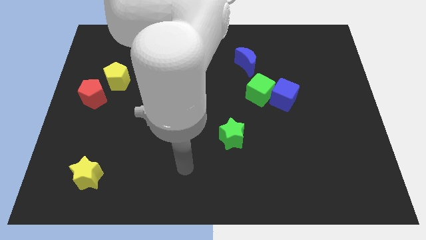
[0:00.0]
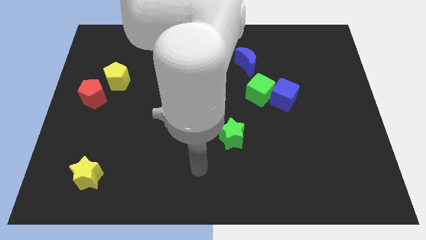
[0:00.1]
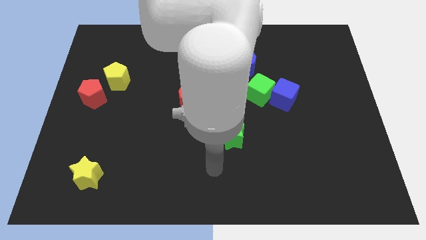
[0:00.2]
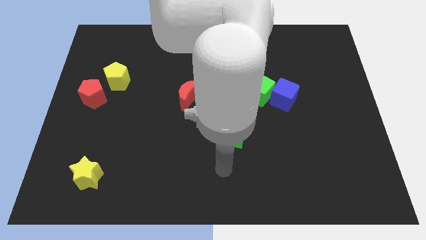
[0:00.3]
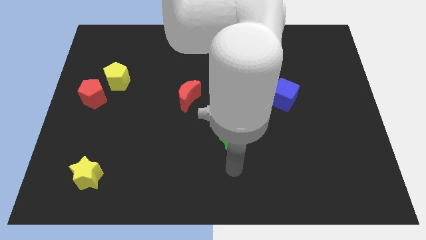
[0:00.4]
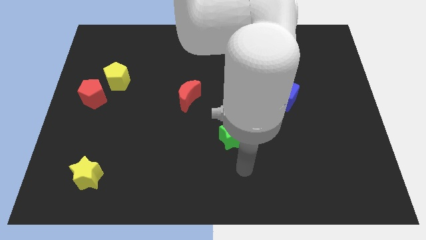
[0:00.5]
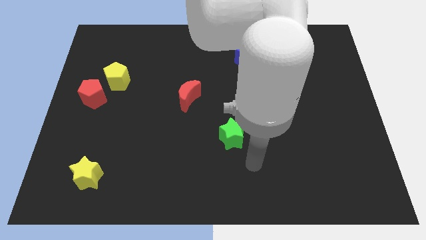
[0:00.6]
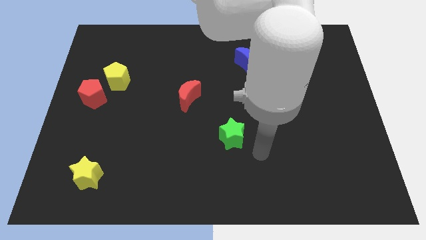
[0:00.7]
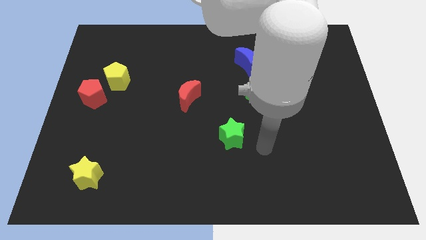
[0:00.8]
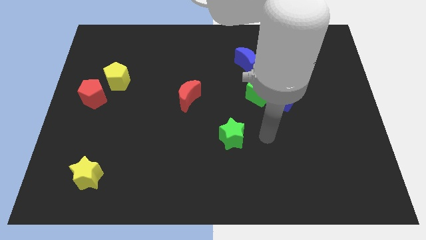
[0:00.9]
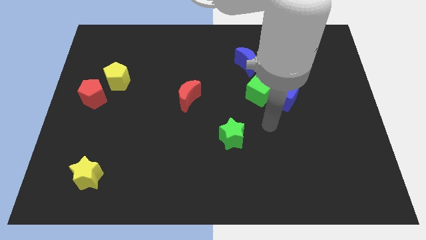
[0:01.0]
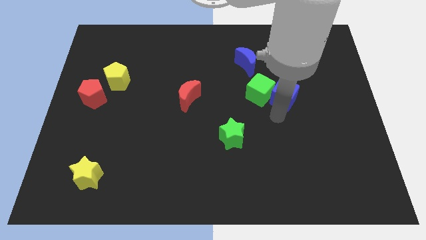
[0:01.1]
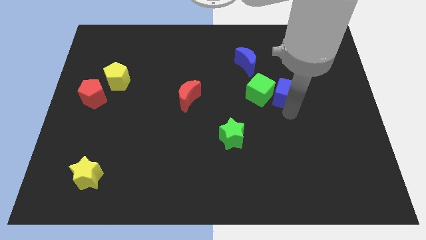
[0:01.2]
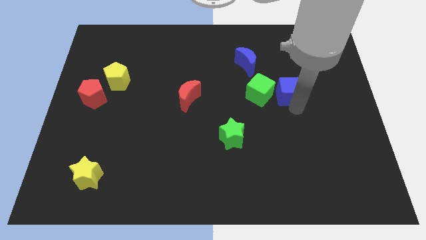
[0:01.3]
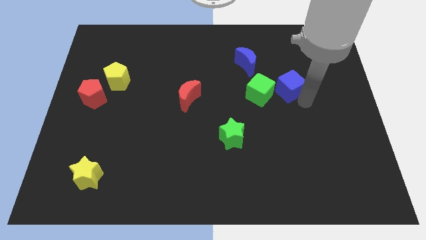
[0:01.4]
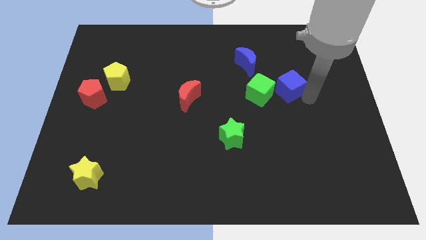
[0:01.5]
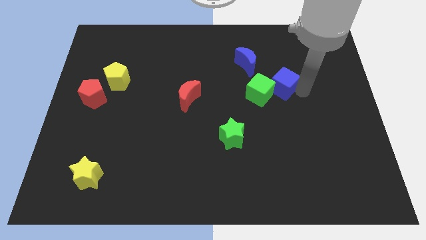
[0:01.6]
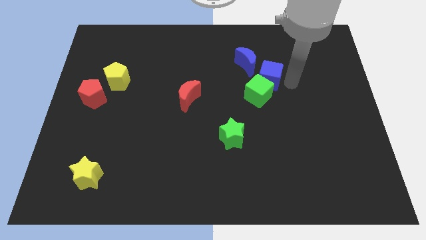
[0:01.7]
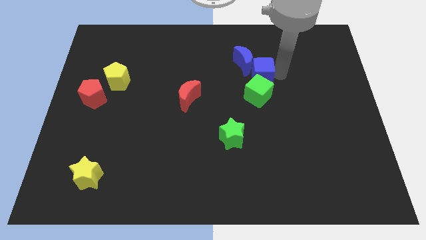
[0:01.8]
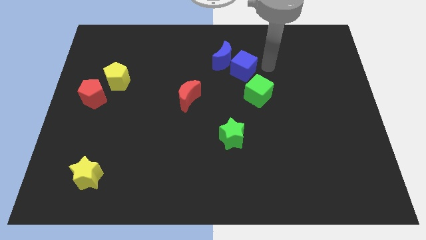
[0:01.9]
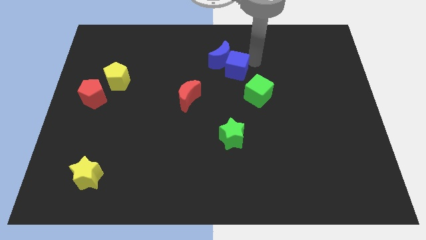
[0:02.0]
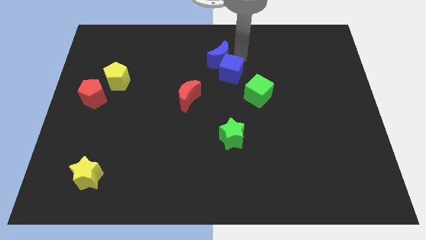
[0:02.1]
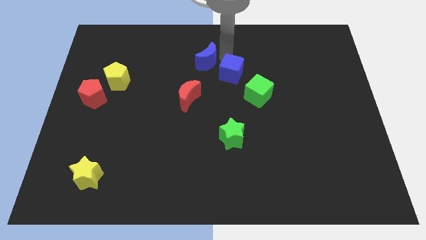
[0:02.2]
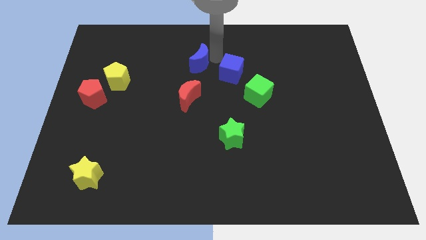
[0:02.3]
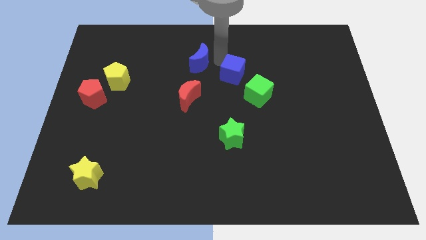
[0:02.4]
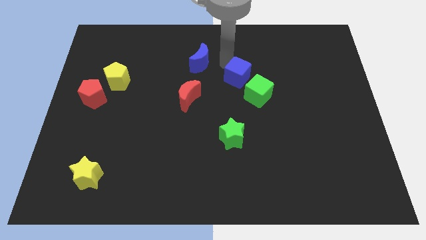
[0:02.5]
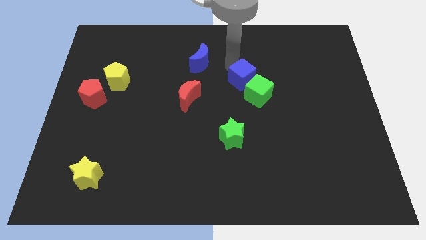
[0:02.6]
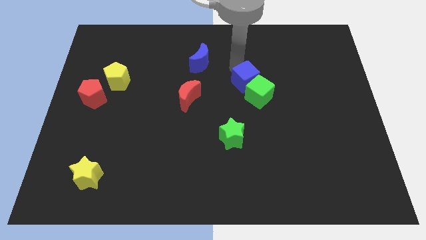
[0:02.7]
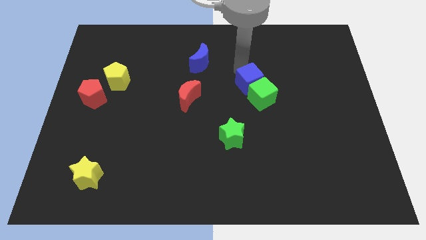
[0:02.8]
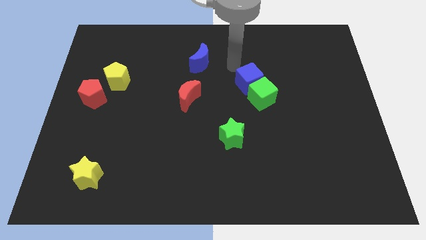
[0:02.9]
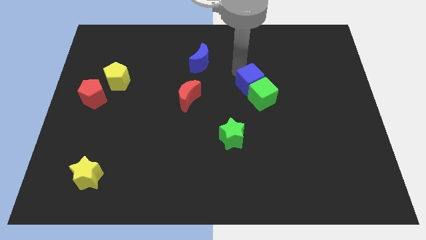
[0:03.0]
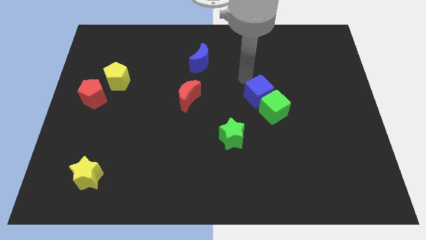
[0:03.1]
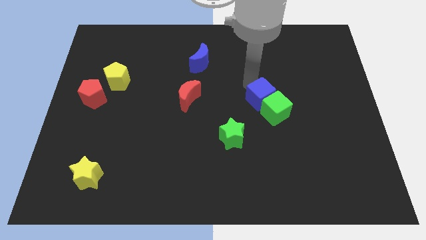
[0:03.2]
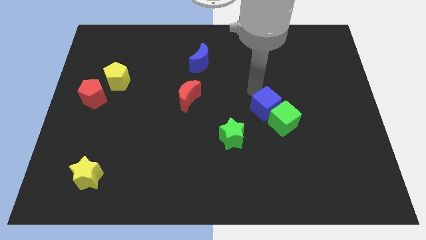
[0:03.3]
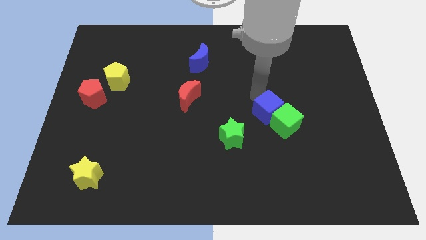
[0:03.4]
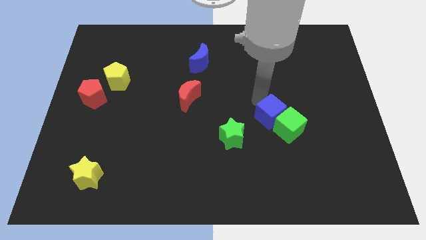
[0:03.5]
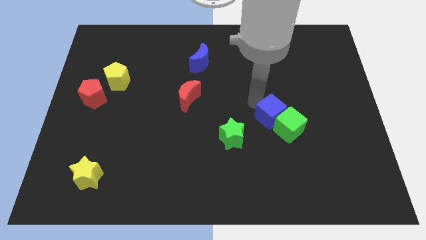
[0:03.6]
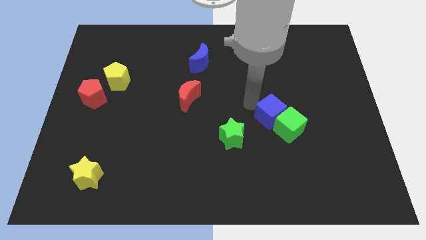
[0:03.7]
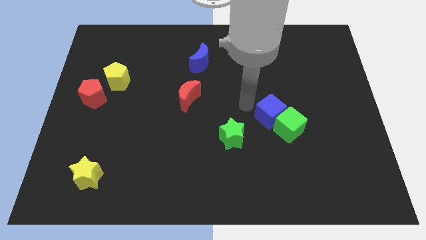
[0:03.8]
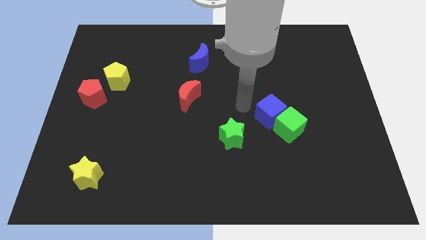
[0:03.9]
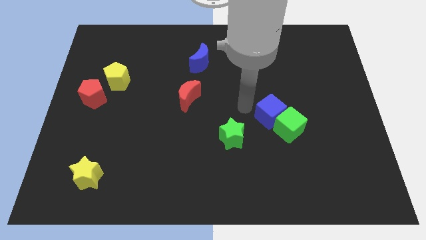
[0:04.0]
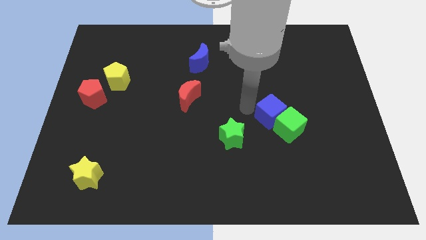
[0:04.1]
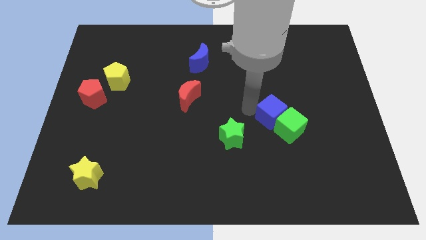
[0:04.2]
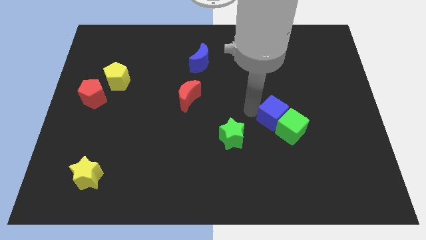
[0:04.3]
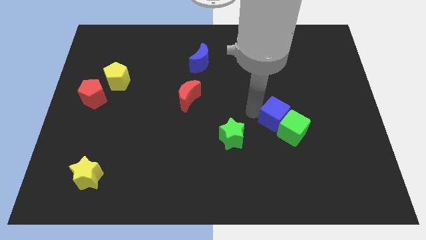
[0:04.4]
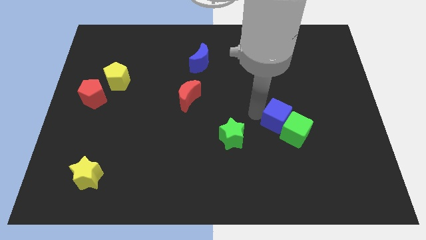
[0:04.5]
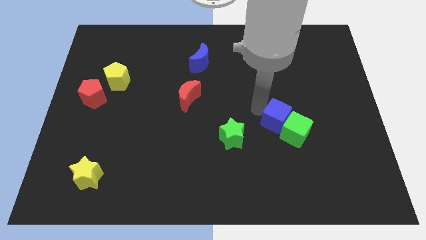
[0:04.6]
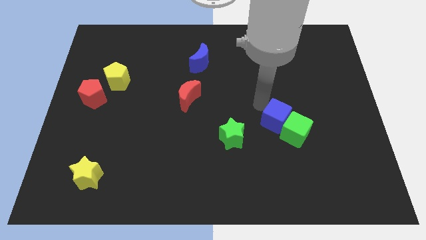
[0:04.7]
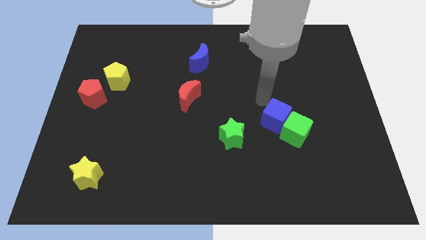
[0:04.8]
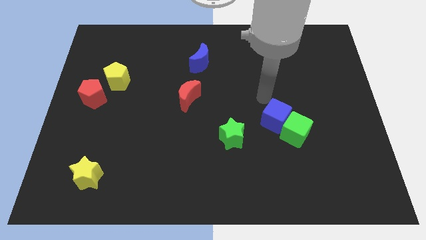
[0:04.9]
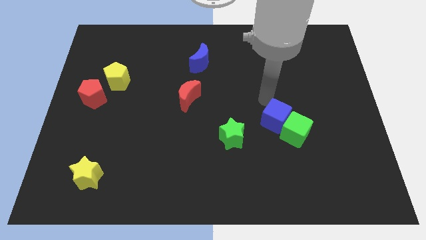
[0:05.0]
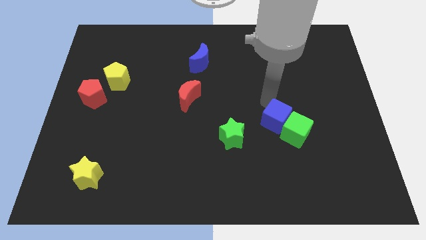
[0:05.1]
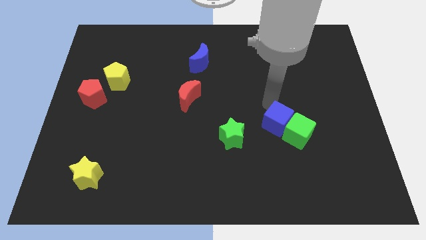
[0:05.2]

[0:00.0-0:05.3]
slightly slide the blue cube down

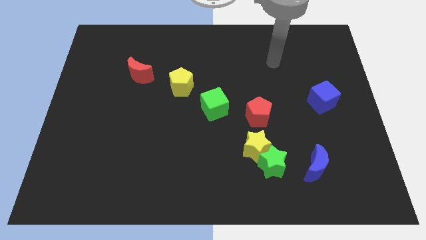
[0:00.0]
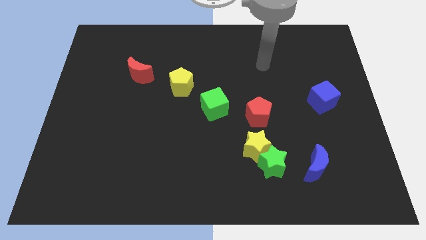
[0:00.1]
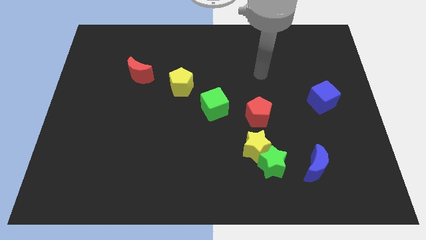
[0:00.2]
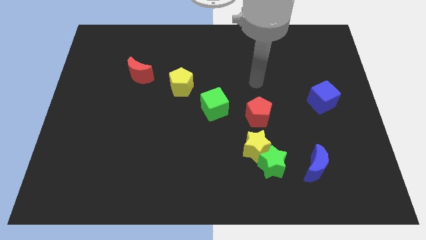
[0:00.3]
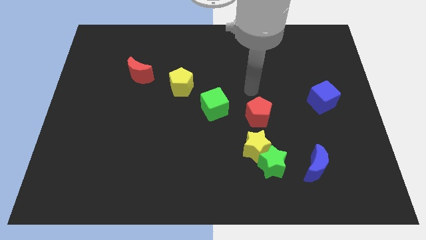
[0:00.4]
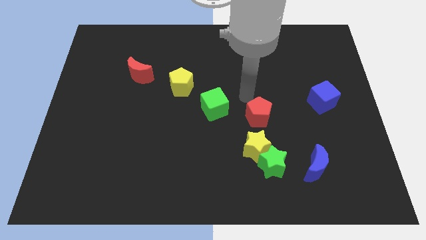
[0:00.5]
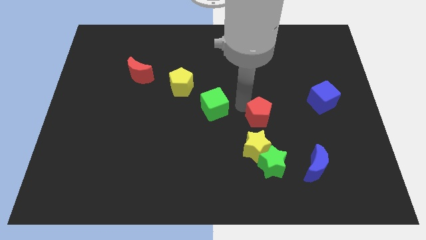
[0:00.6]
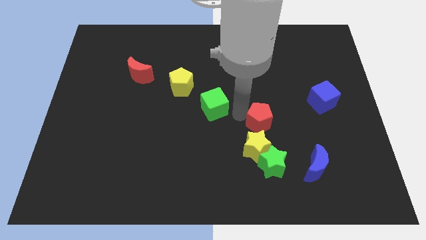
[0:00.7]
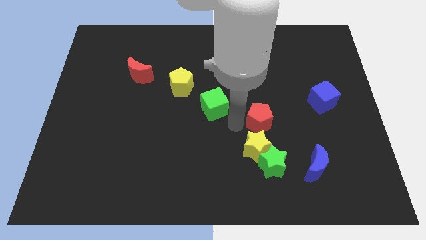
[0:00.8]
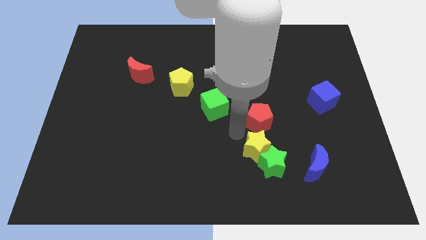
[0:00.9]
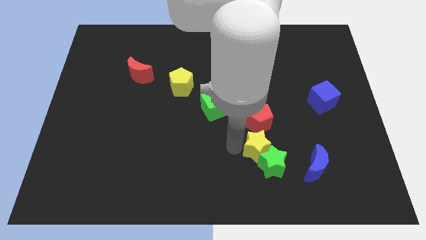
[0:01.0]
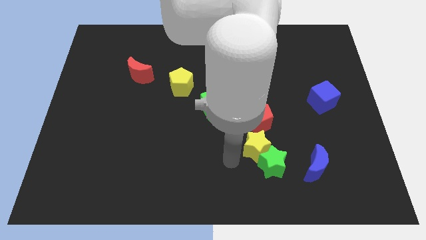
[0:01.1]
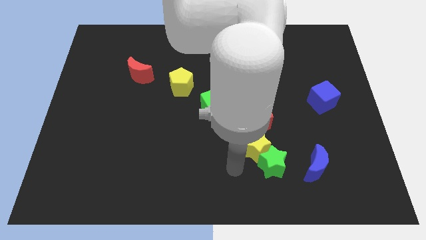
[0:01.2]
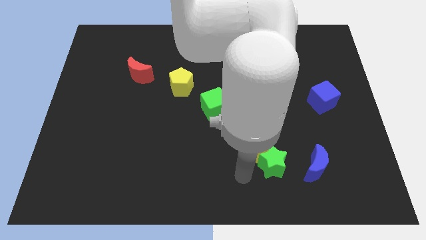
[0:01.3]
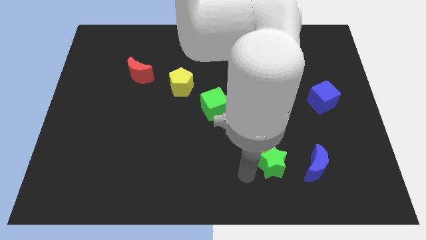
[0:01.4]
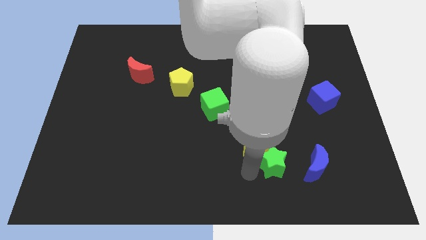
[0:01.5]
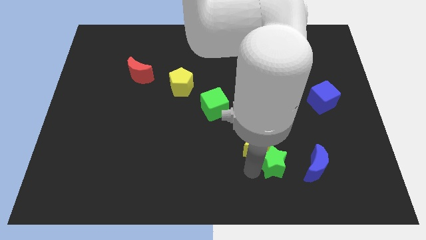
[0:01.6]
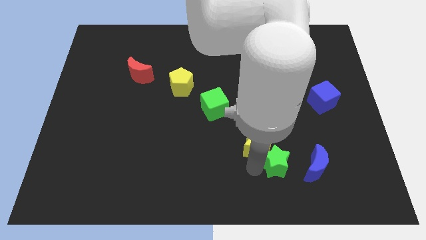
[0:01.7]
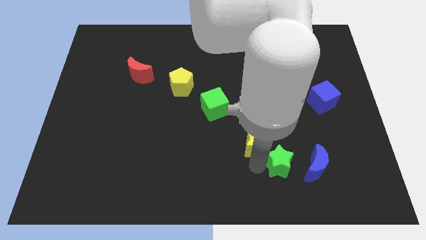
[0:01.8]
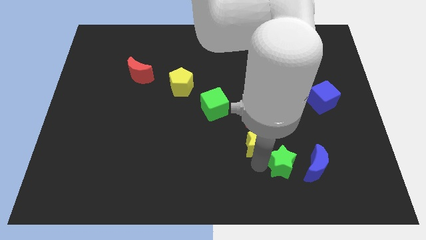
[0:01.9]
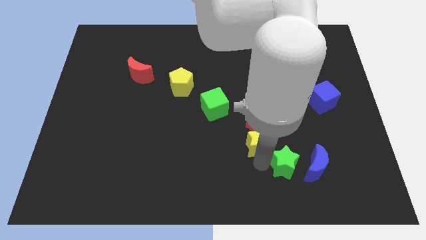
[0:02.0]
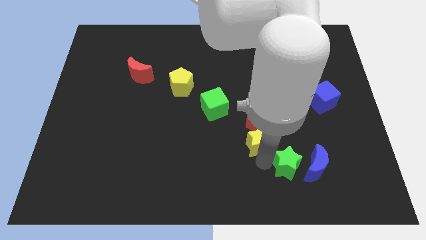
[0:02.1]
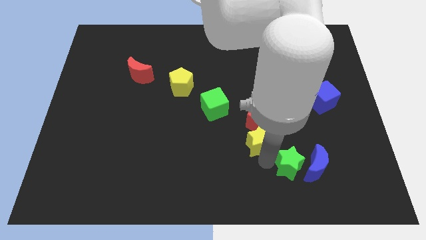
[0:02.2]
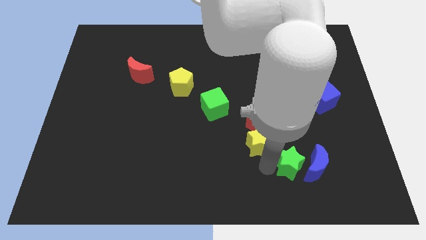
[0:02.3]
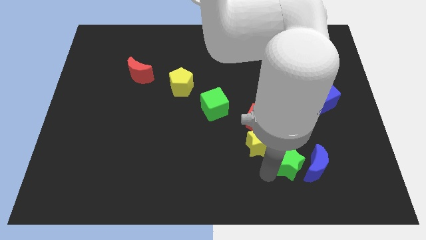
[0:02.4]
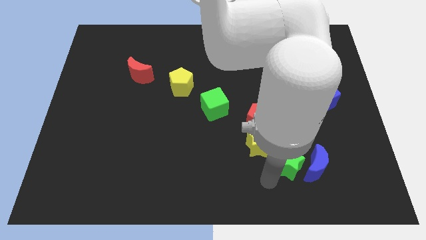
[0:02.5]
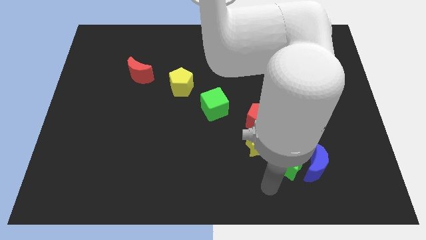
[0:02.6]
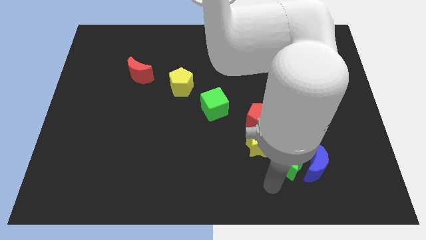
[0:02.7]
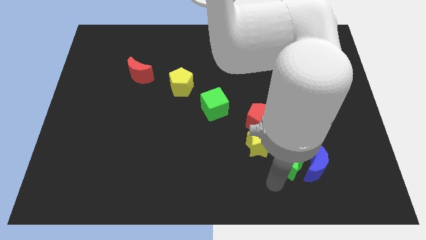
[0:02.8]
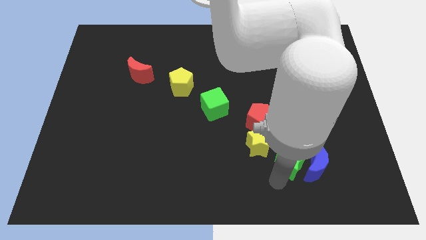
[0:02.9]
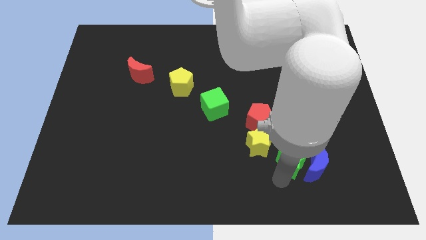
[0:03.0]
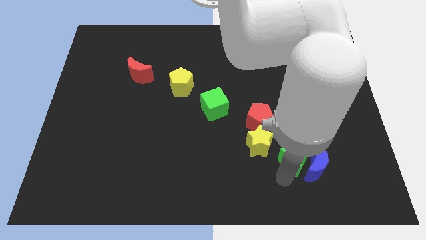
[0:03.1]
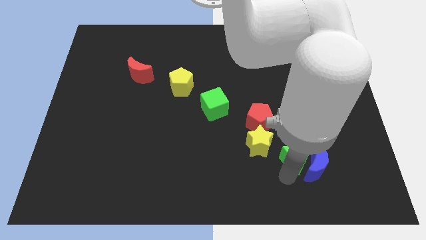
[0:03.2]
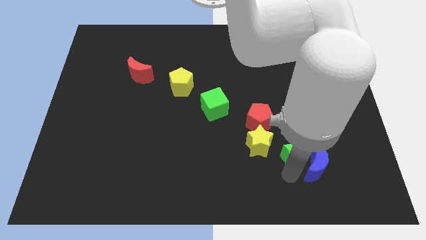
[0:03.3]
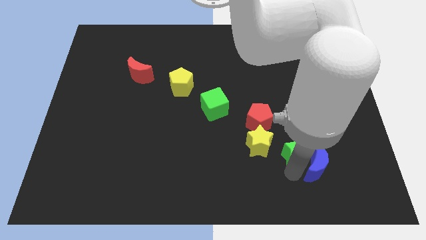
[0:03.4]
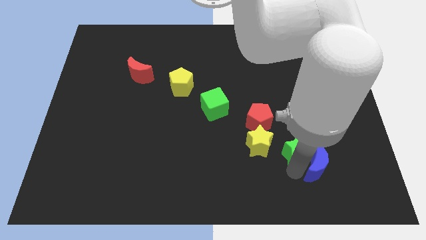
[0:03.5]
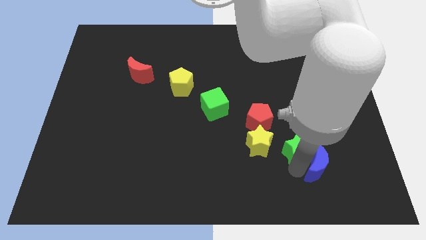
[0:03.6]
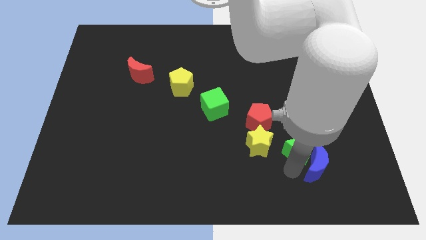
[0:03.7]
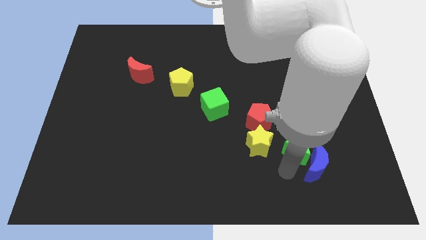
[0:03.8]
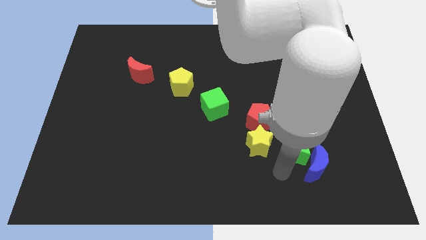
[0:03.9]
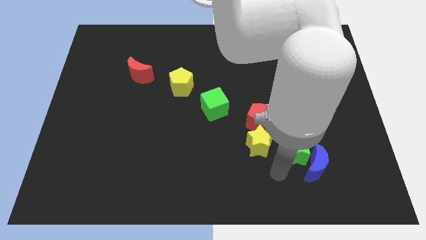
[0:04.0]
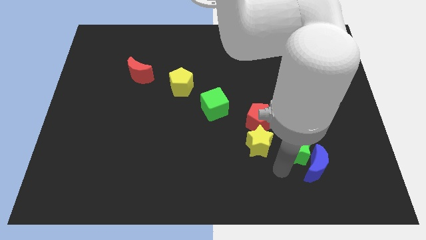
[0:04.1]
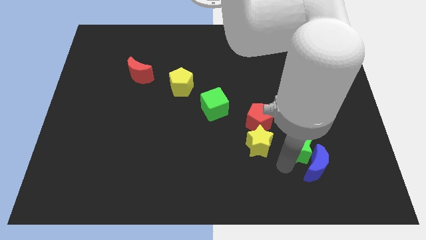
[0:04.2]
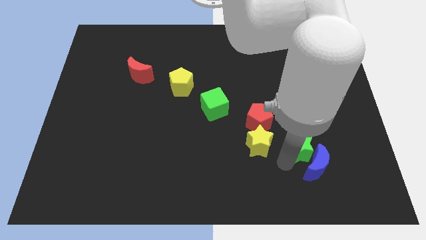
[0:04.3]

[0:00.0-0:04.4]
slide the green star up and to the right diagonally somewhat
